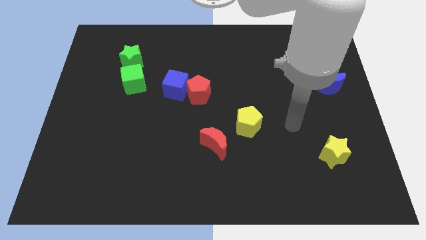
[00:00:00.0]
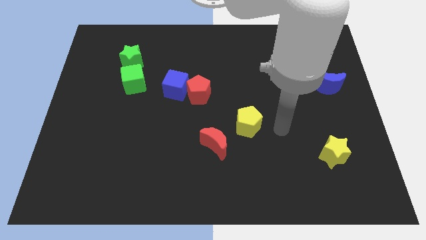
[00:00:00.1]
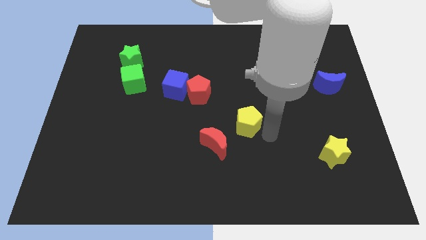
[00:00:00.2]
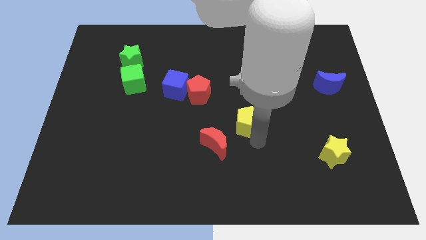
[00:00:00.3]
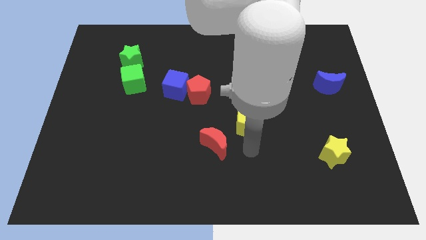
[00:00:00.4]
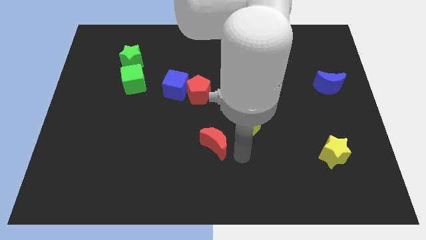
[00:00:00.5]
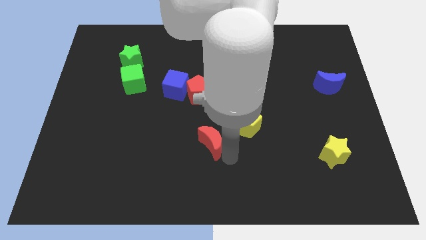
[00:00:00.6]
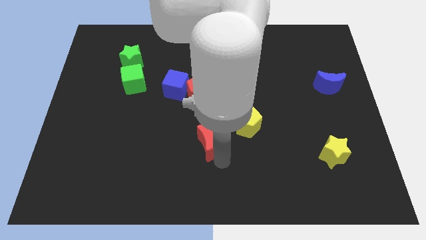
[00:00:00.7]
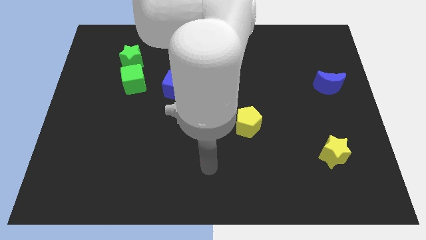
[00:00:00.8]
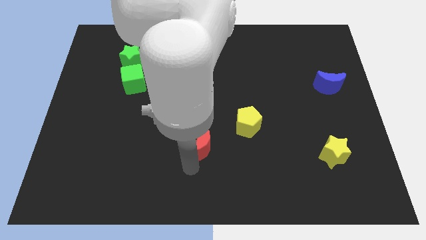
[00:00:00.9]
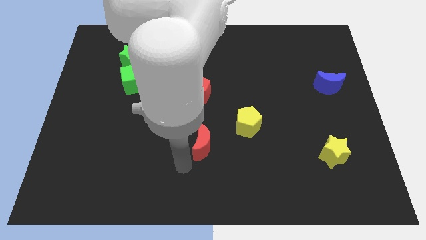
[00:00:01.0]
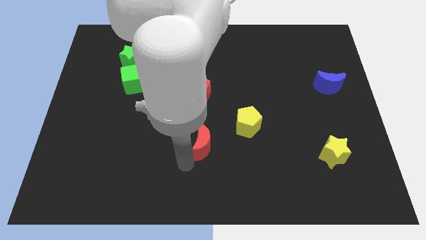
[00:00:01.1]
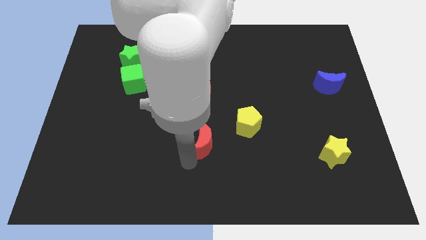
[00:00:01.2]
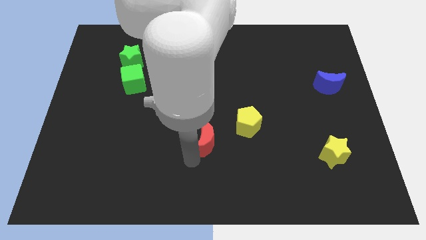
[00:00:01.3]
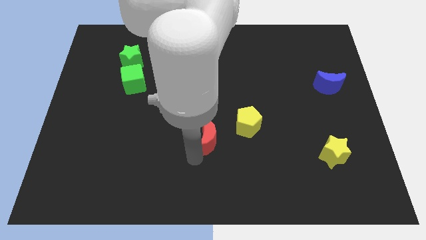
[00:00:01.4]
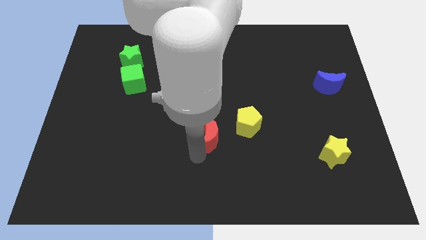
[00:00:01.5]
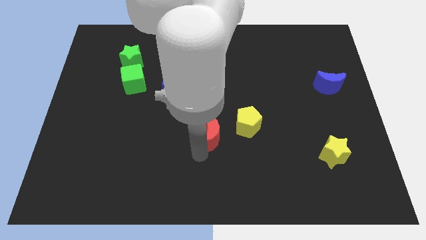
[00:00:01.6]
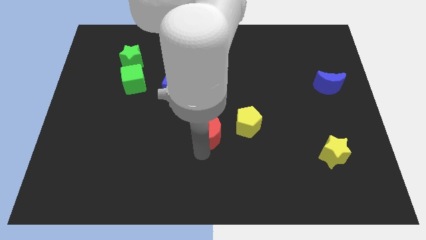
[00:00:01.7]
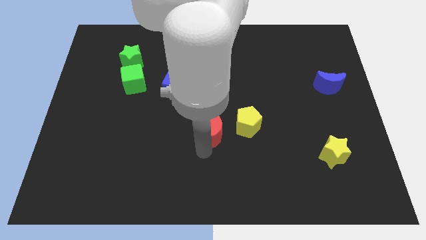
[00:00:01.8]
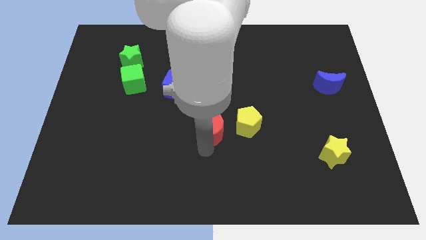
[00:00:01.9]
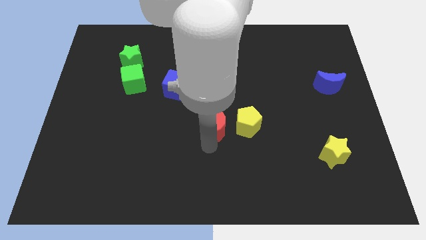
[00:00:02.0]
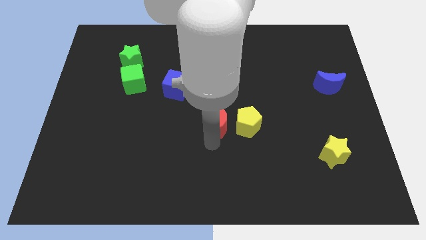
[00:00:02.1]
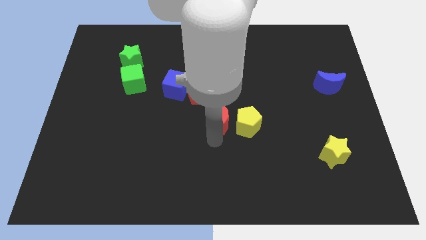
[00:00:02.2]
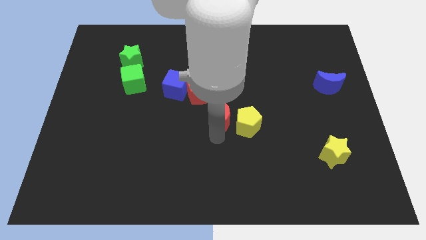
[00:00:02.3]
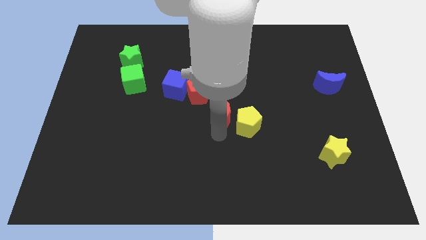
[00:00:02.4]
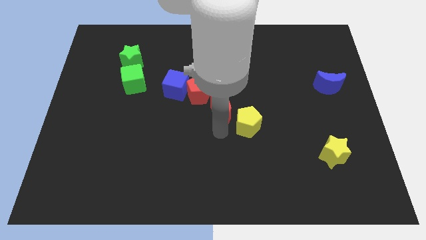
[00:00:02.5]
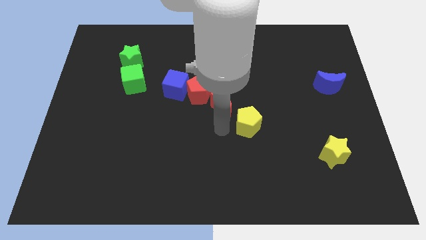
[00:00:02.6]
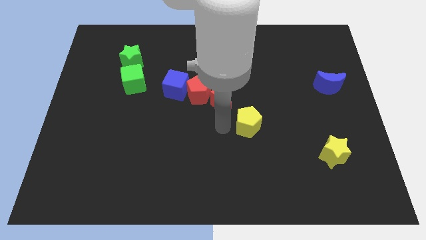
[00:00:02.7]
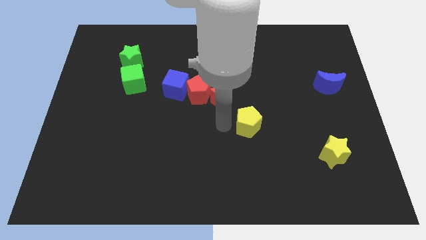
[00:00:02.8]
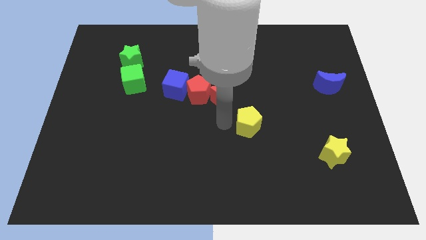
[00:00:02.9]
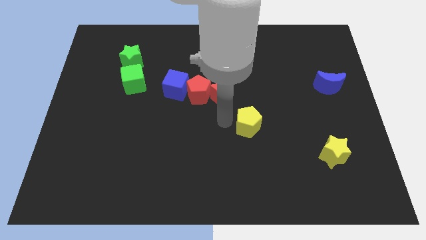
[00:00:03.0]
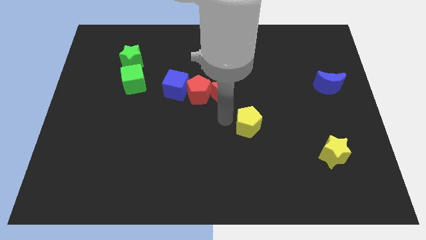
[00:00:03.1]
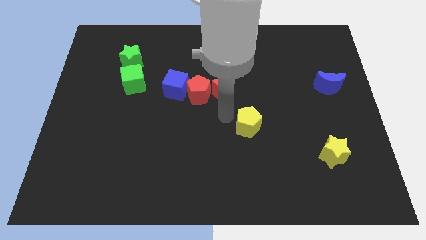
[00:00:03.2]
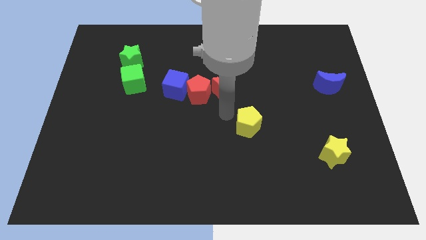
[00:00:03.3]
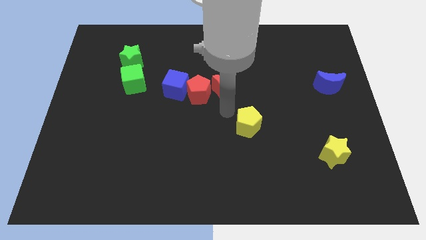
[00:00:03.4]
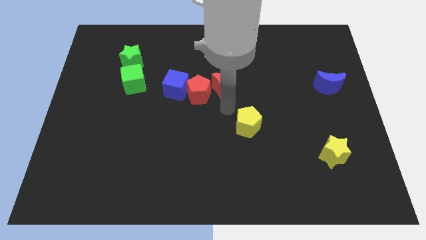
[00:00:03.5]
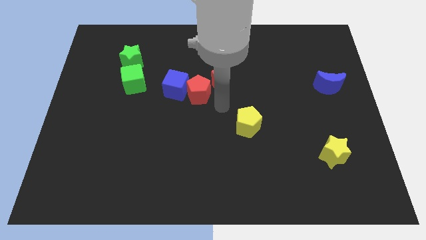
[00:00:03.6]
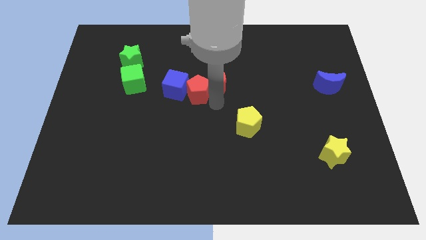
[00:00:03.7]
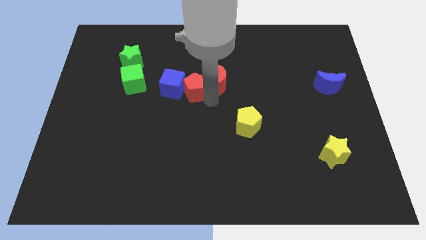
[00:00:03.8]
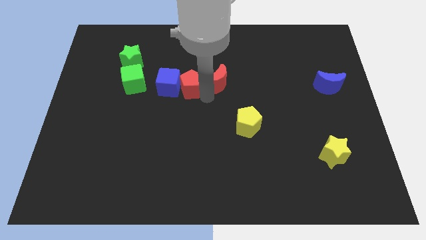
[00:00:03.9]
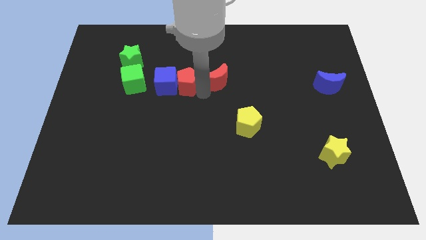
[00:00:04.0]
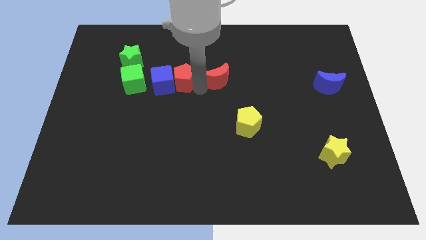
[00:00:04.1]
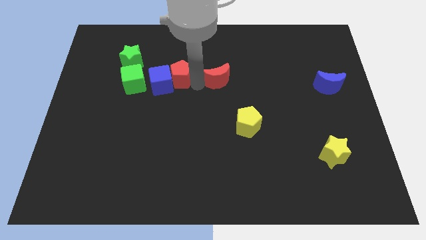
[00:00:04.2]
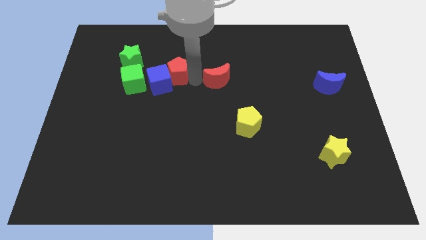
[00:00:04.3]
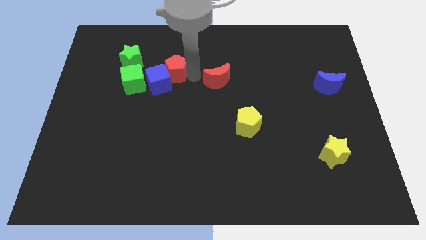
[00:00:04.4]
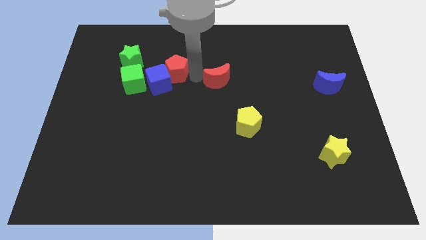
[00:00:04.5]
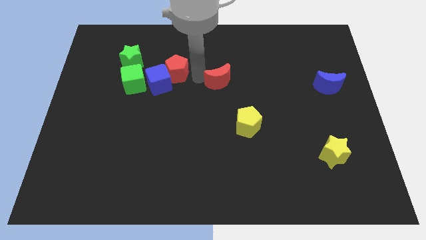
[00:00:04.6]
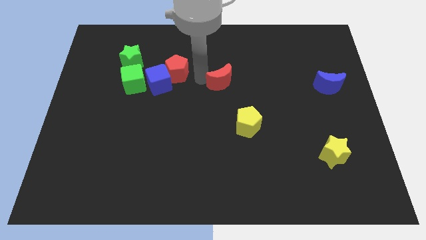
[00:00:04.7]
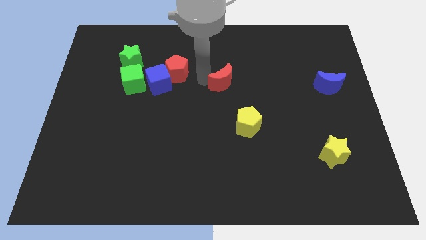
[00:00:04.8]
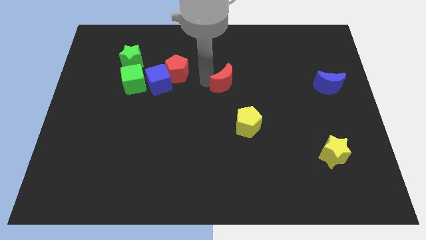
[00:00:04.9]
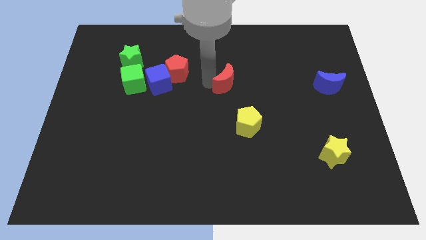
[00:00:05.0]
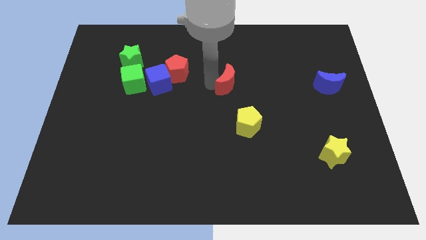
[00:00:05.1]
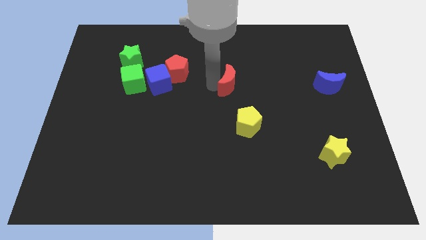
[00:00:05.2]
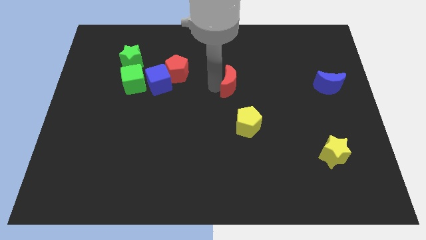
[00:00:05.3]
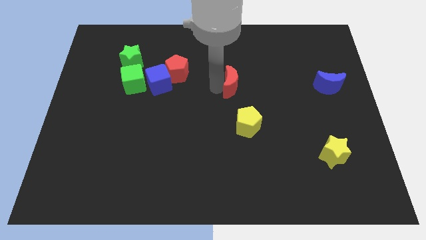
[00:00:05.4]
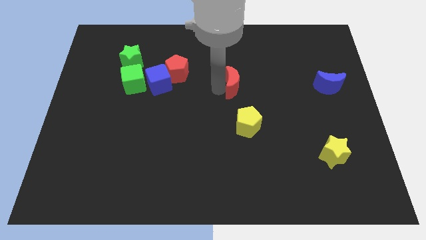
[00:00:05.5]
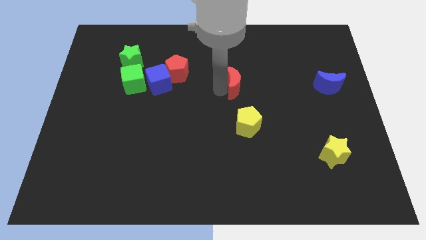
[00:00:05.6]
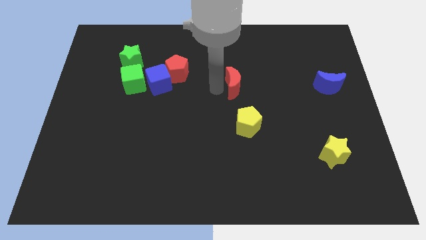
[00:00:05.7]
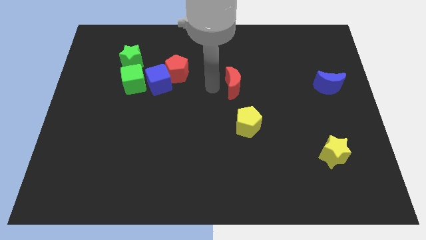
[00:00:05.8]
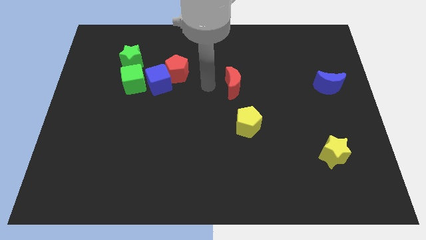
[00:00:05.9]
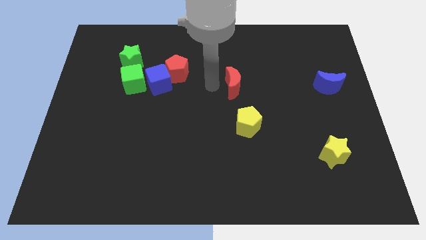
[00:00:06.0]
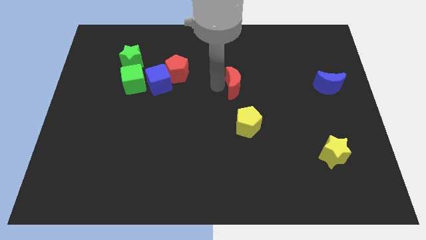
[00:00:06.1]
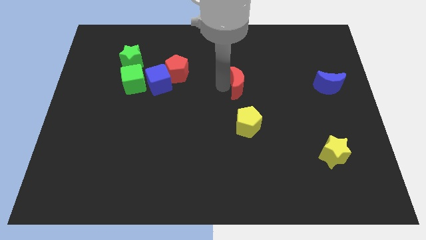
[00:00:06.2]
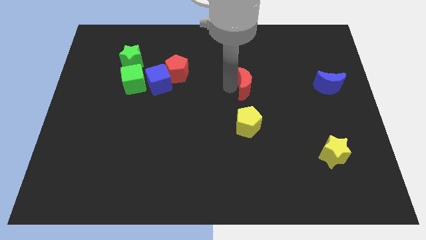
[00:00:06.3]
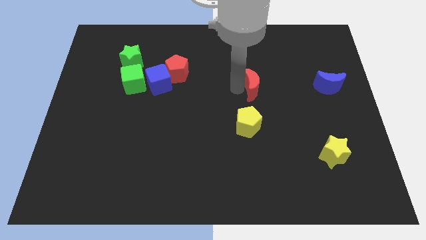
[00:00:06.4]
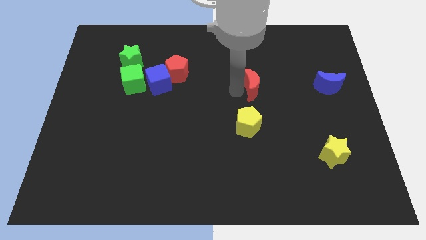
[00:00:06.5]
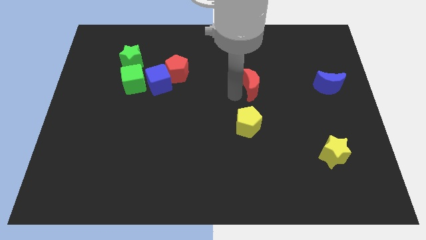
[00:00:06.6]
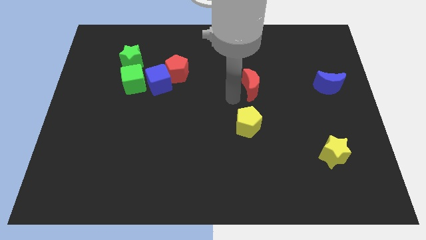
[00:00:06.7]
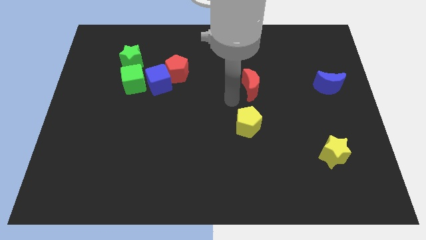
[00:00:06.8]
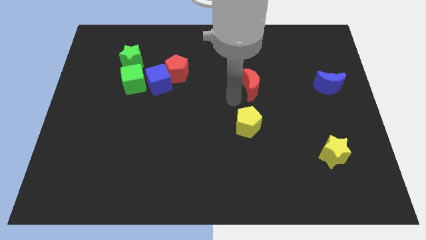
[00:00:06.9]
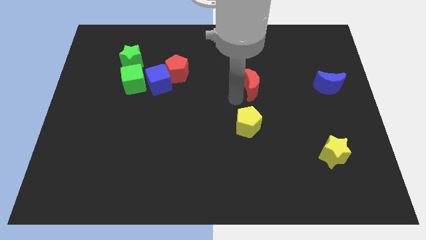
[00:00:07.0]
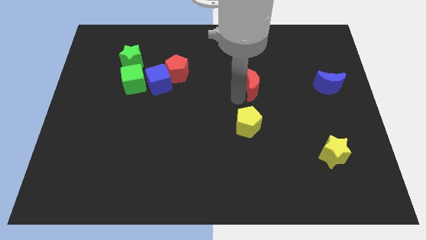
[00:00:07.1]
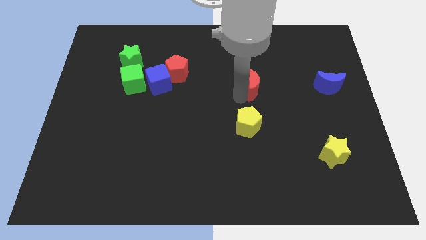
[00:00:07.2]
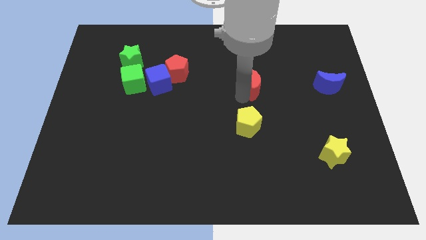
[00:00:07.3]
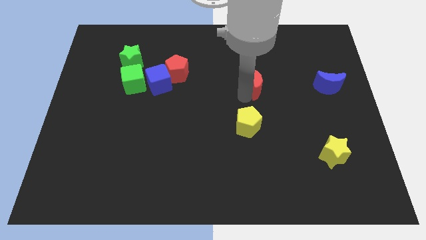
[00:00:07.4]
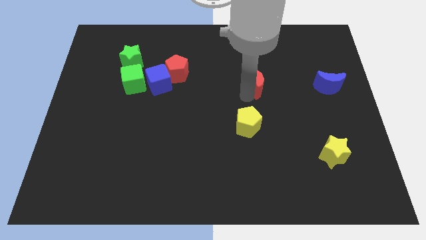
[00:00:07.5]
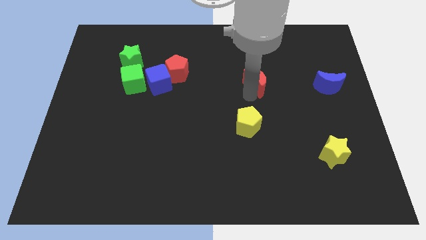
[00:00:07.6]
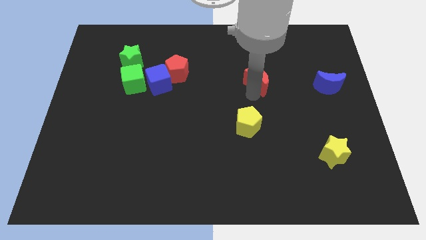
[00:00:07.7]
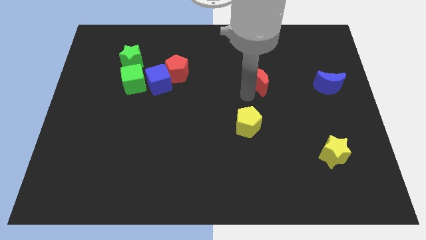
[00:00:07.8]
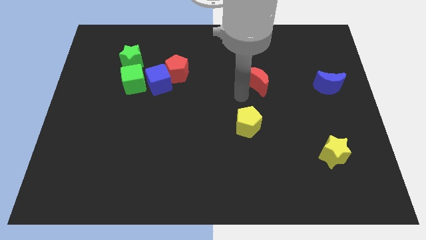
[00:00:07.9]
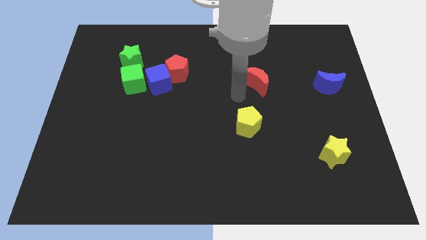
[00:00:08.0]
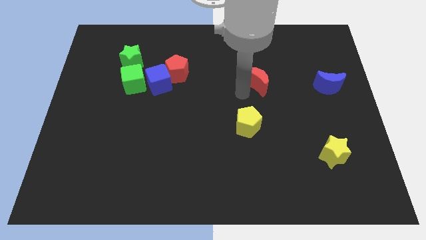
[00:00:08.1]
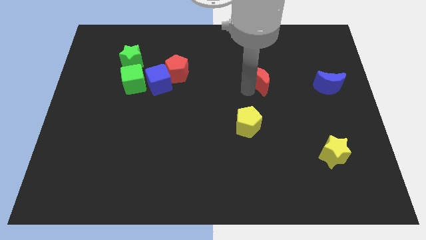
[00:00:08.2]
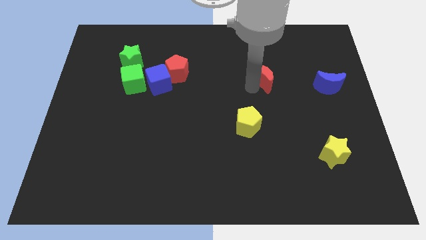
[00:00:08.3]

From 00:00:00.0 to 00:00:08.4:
move the red moon upwards and to the right diagonally
